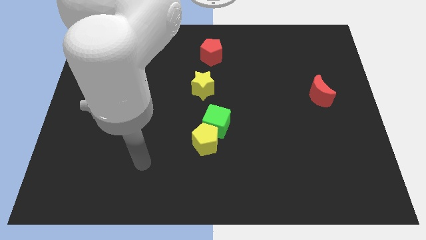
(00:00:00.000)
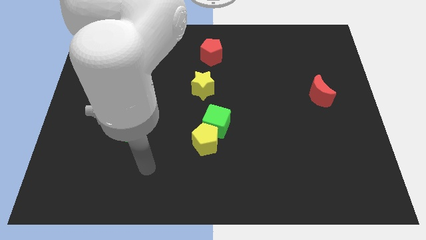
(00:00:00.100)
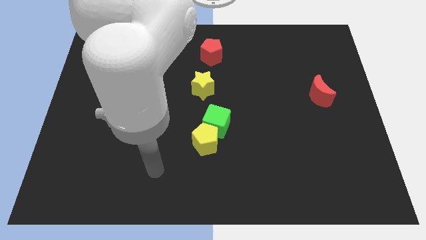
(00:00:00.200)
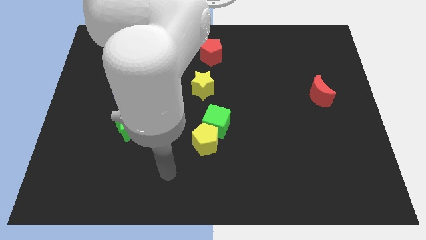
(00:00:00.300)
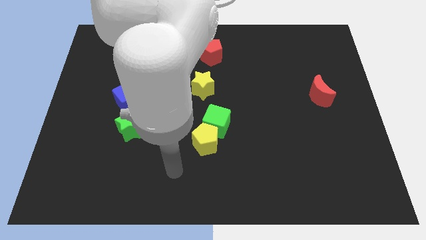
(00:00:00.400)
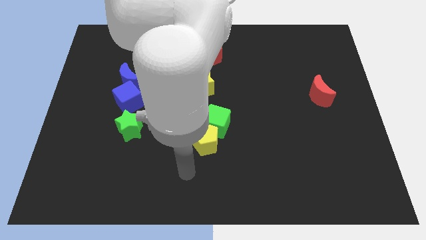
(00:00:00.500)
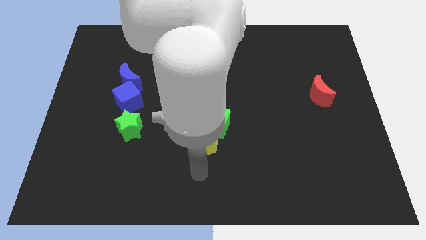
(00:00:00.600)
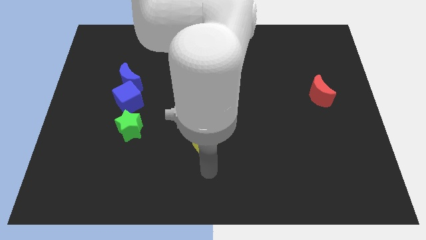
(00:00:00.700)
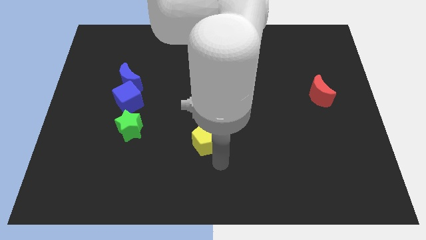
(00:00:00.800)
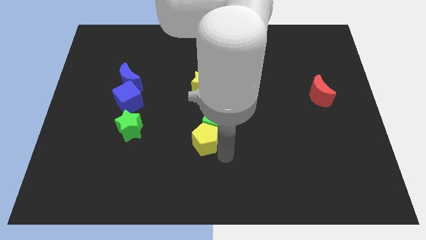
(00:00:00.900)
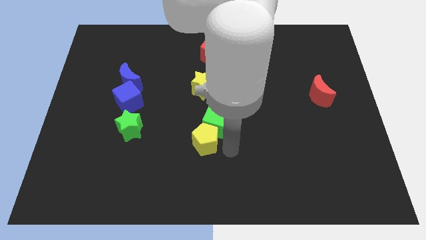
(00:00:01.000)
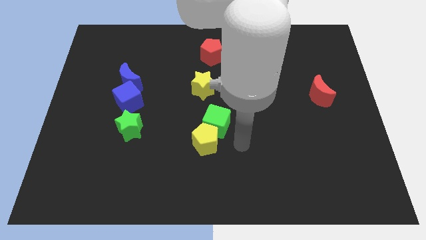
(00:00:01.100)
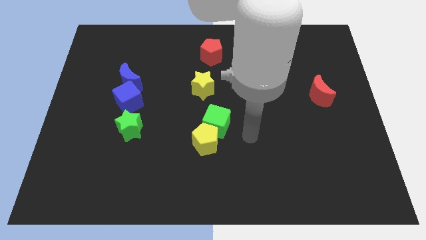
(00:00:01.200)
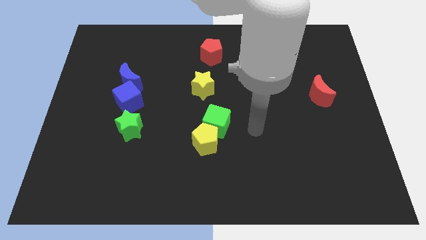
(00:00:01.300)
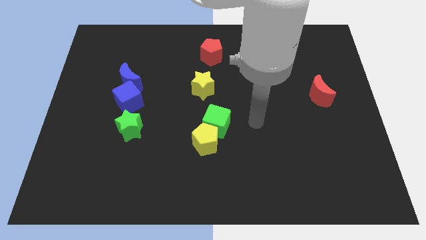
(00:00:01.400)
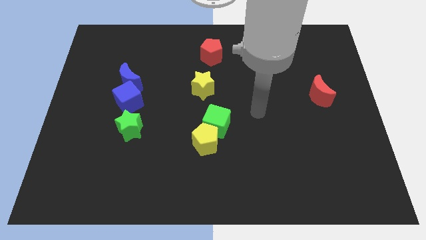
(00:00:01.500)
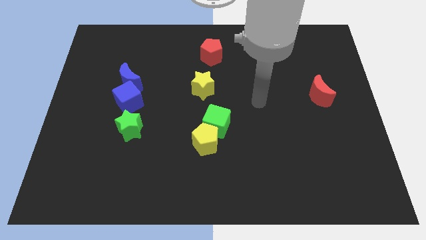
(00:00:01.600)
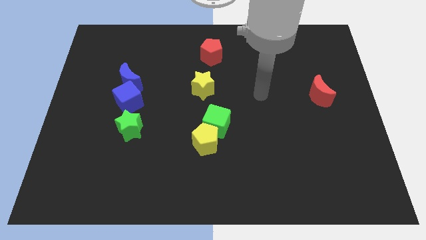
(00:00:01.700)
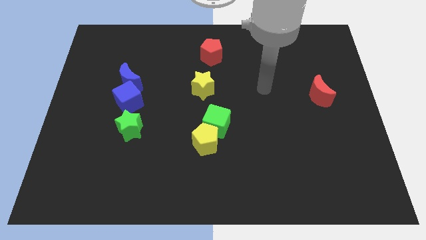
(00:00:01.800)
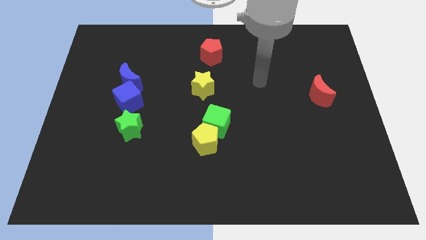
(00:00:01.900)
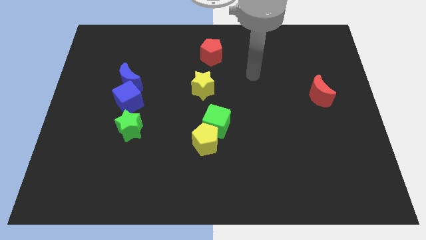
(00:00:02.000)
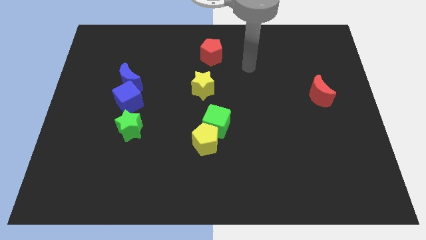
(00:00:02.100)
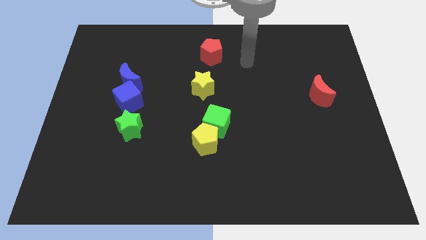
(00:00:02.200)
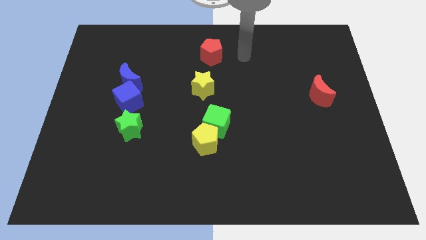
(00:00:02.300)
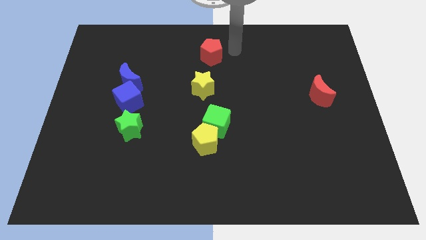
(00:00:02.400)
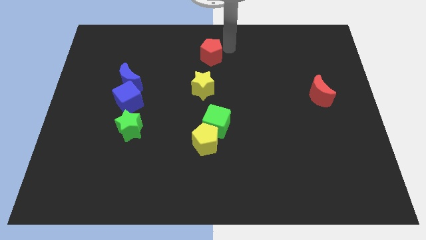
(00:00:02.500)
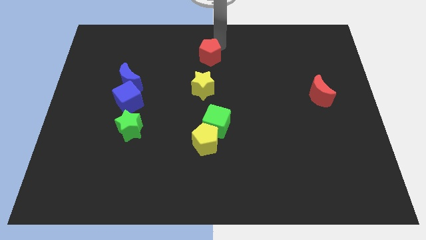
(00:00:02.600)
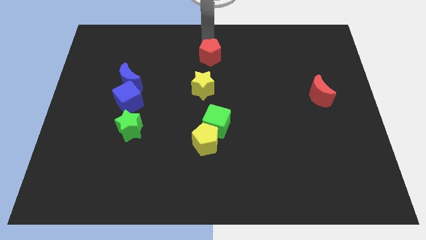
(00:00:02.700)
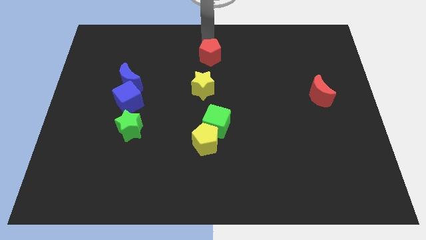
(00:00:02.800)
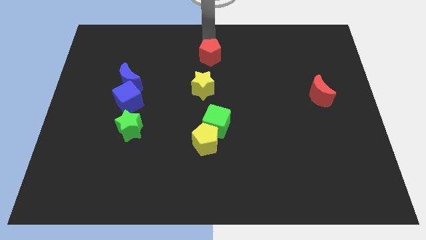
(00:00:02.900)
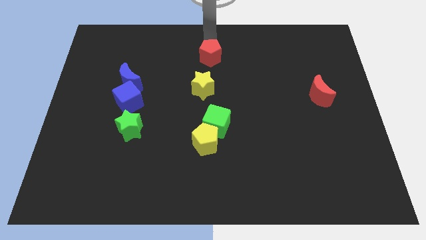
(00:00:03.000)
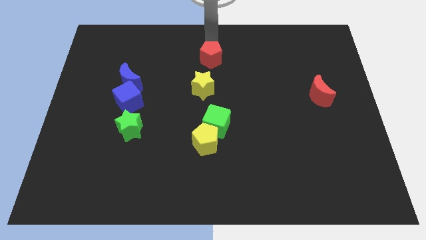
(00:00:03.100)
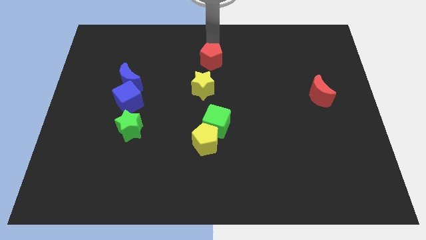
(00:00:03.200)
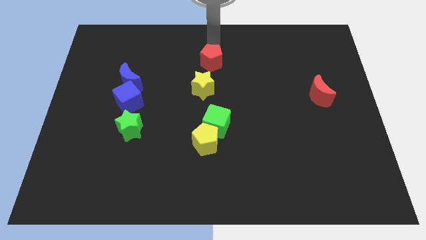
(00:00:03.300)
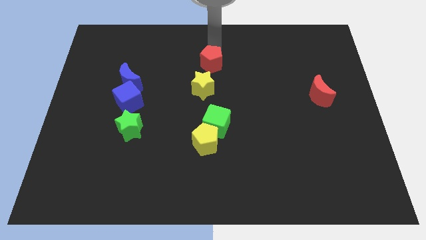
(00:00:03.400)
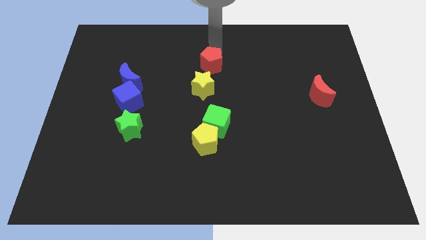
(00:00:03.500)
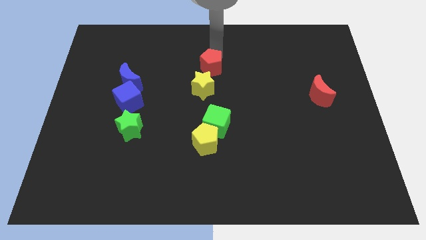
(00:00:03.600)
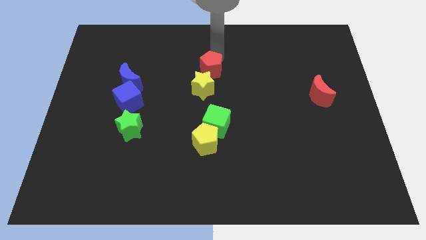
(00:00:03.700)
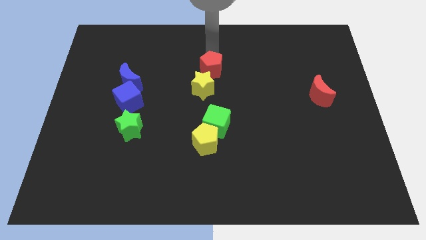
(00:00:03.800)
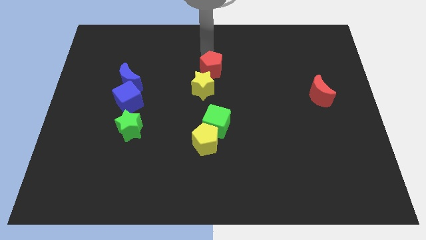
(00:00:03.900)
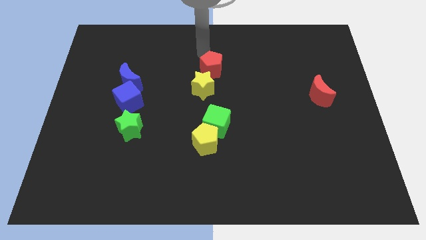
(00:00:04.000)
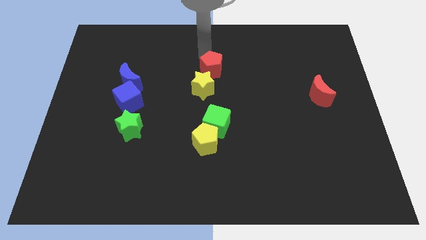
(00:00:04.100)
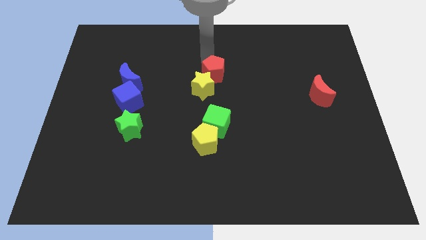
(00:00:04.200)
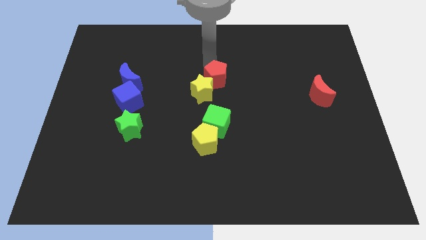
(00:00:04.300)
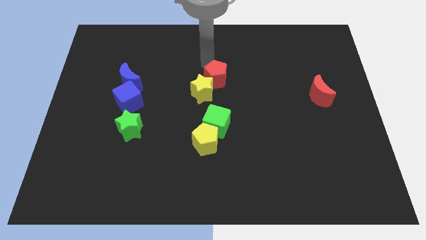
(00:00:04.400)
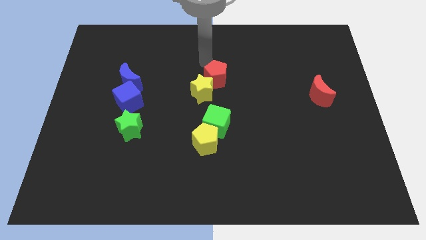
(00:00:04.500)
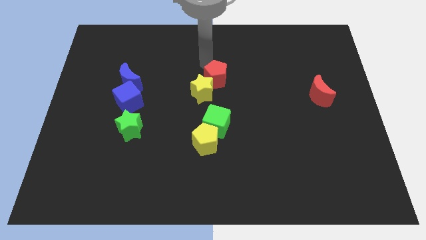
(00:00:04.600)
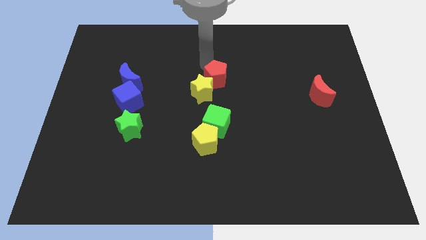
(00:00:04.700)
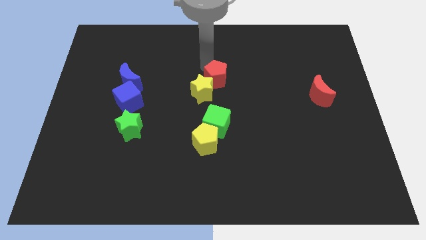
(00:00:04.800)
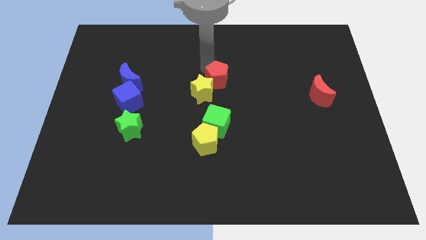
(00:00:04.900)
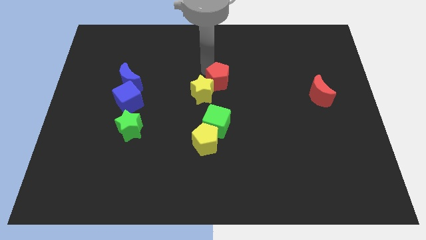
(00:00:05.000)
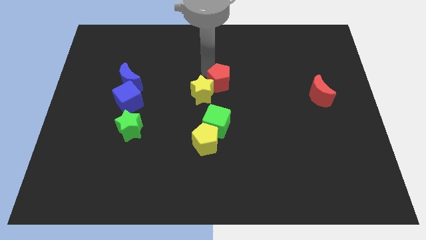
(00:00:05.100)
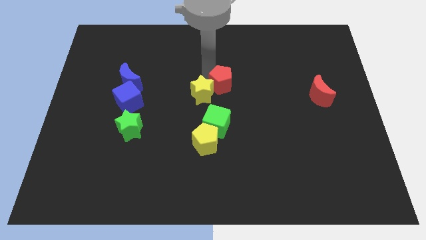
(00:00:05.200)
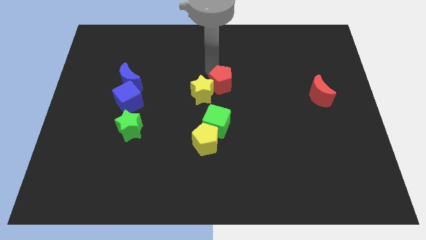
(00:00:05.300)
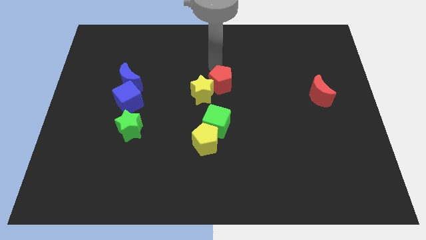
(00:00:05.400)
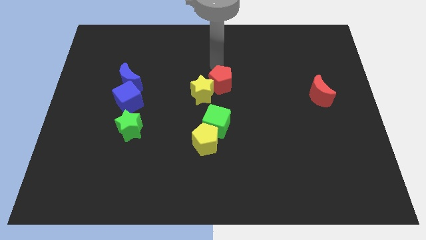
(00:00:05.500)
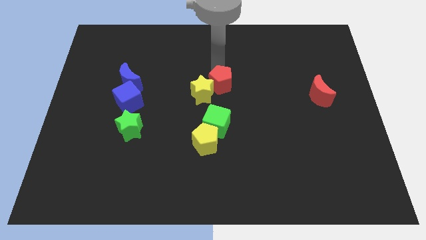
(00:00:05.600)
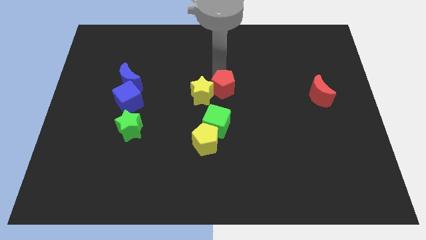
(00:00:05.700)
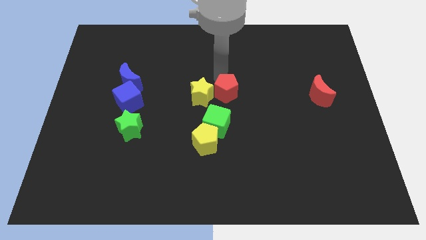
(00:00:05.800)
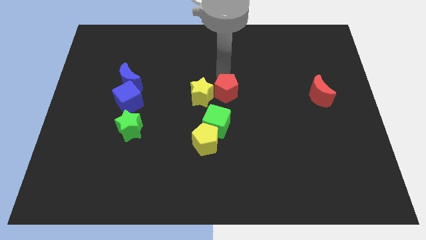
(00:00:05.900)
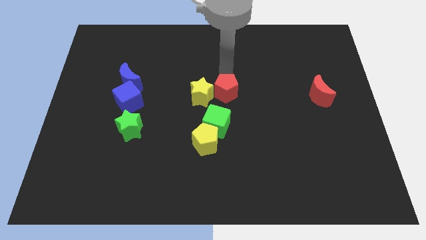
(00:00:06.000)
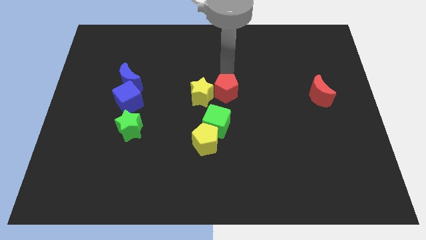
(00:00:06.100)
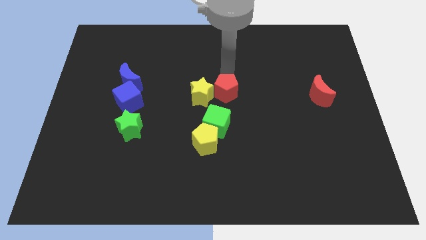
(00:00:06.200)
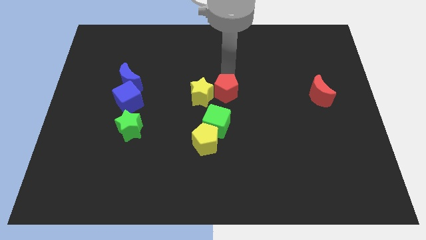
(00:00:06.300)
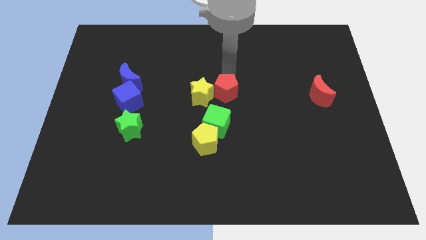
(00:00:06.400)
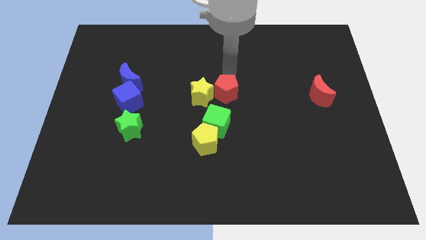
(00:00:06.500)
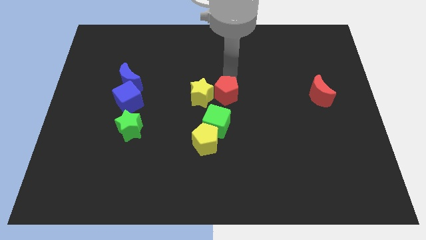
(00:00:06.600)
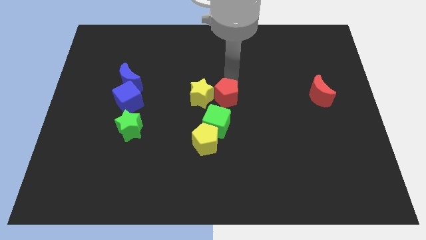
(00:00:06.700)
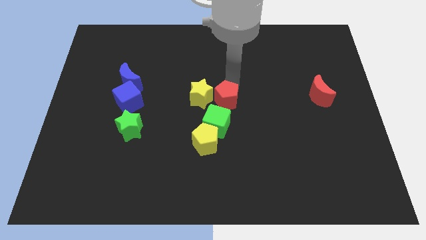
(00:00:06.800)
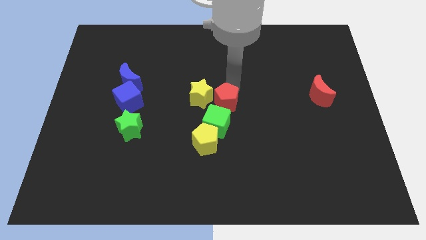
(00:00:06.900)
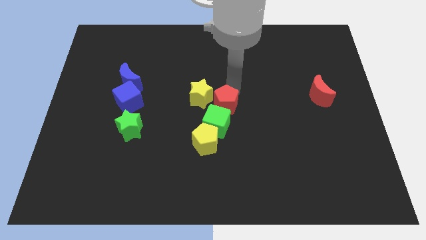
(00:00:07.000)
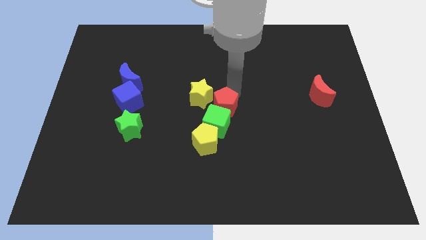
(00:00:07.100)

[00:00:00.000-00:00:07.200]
put the red pentagon to the top right of the yellow pentagon

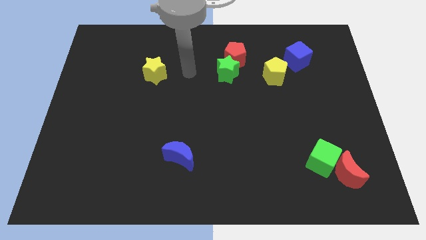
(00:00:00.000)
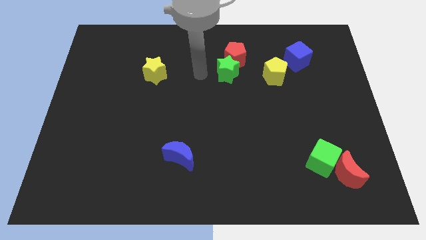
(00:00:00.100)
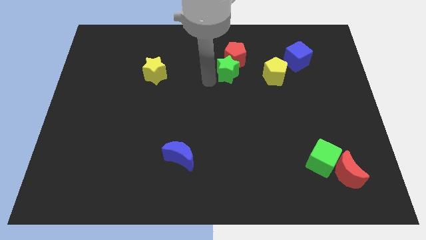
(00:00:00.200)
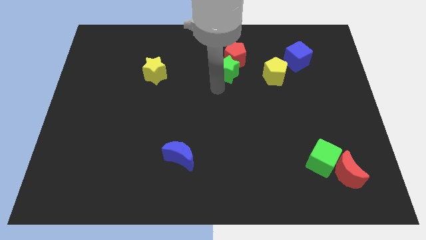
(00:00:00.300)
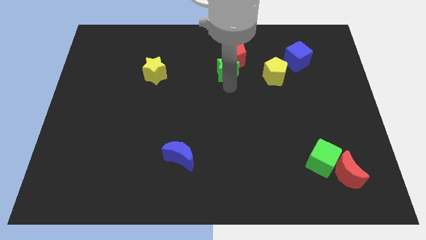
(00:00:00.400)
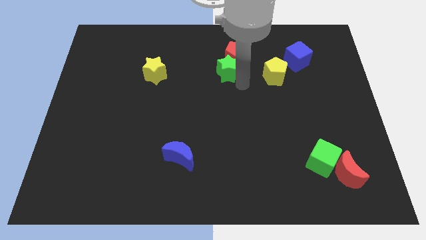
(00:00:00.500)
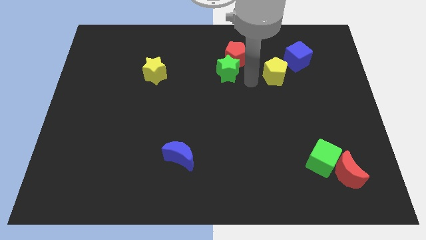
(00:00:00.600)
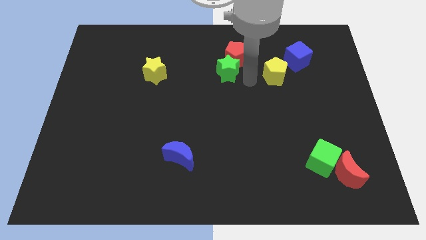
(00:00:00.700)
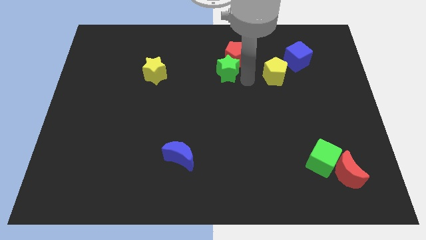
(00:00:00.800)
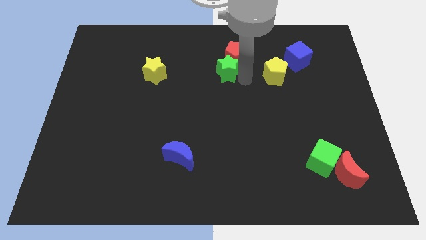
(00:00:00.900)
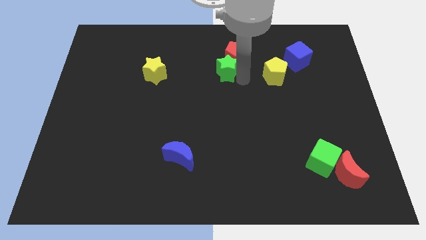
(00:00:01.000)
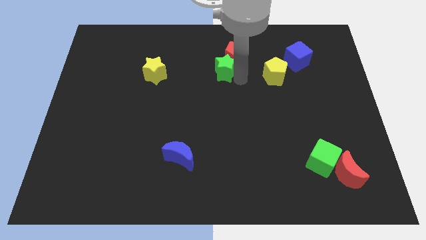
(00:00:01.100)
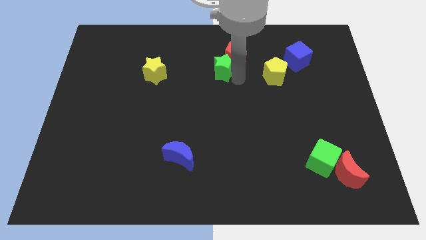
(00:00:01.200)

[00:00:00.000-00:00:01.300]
put the green star left of the red pentagon
